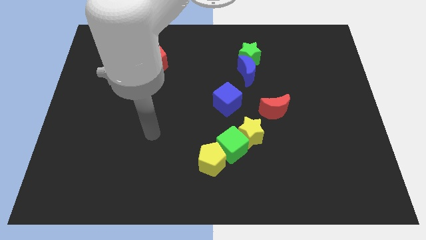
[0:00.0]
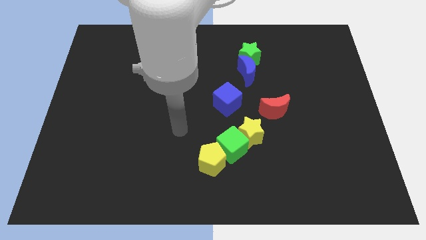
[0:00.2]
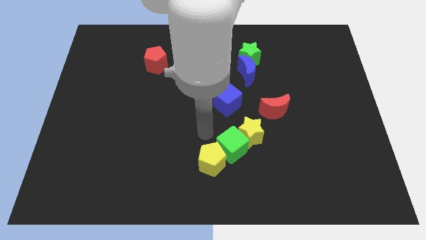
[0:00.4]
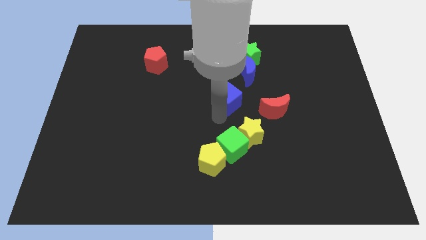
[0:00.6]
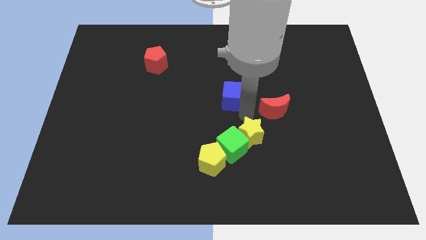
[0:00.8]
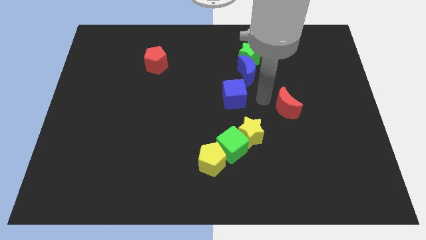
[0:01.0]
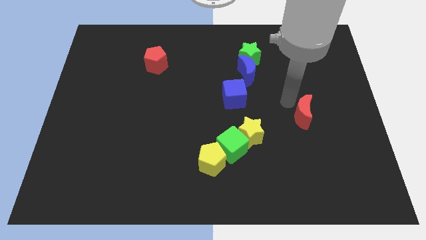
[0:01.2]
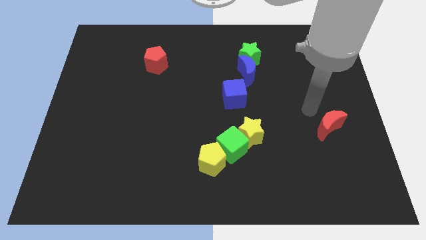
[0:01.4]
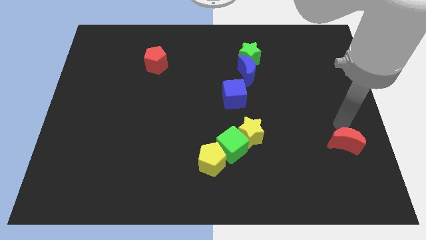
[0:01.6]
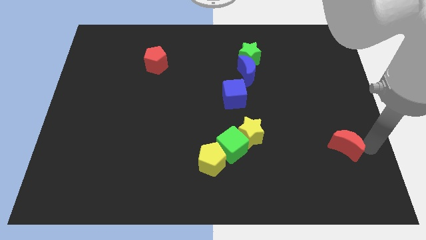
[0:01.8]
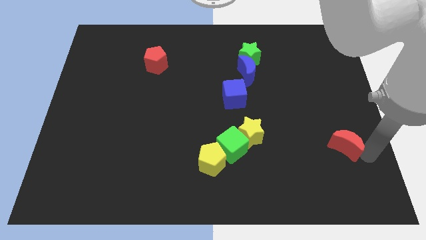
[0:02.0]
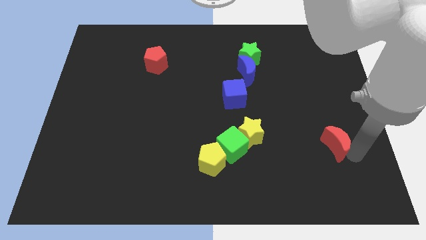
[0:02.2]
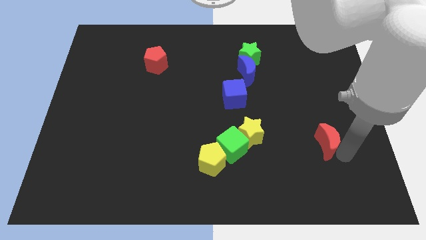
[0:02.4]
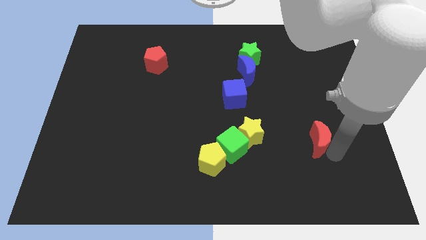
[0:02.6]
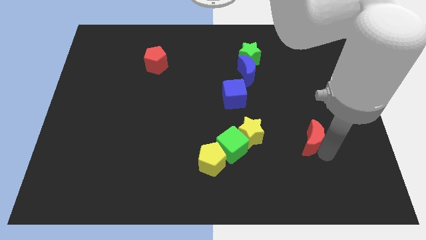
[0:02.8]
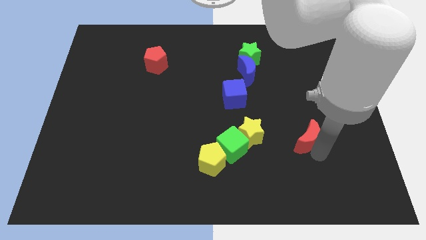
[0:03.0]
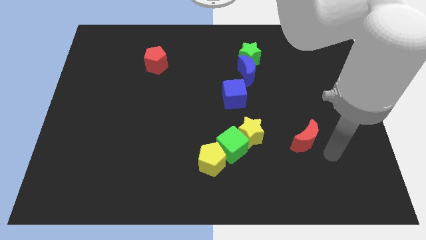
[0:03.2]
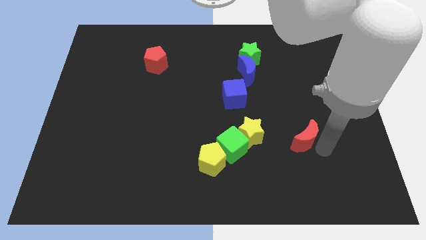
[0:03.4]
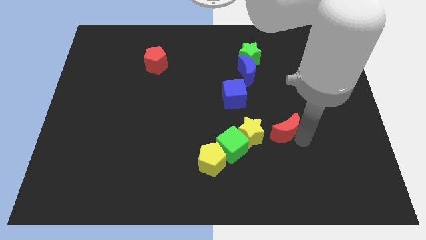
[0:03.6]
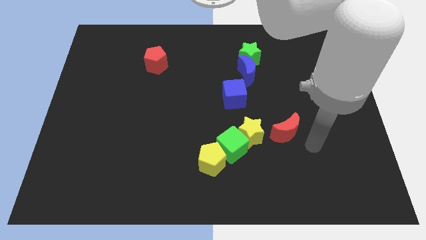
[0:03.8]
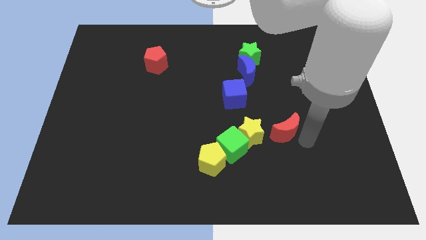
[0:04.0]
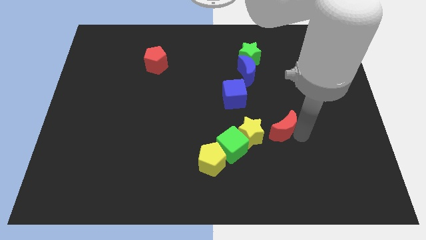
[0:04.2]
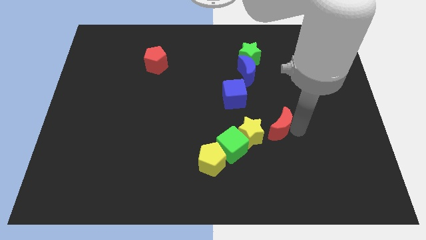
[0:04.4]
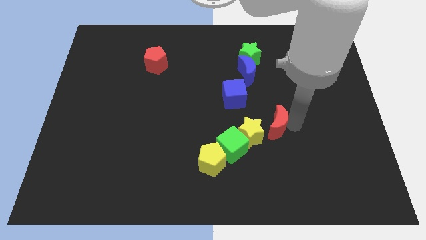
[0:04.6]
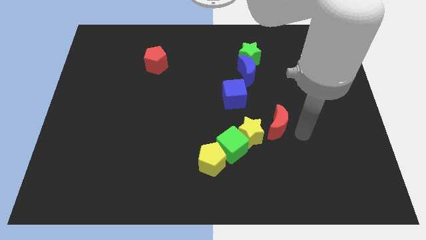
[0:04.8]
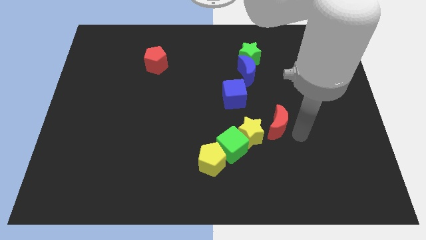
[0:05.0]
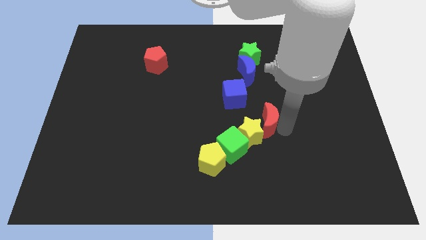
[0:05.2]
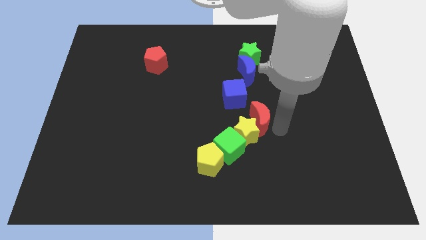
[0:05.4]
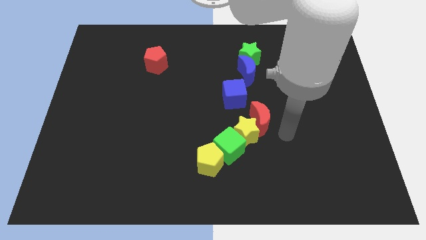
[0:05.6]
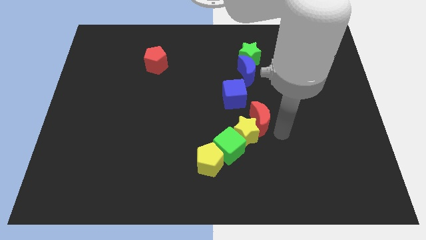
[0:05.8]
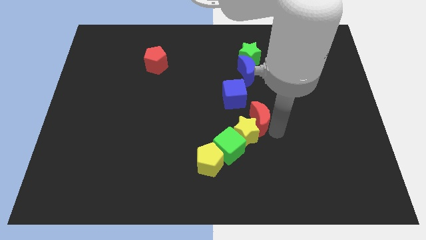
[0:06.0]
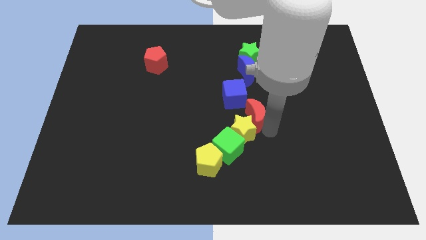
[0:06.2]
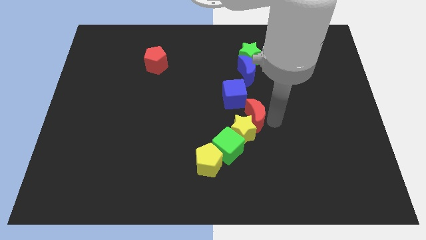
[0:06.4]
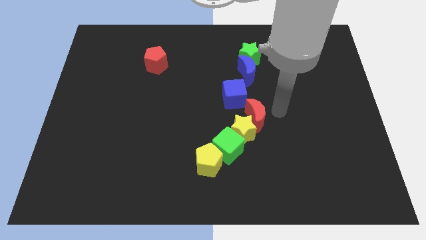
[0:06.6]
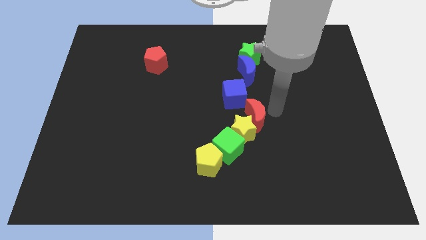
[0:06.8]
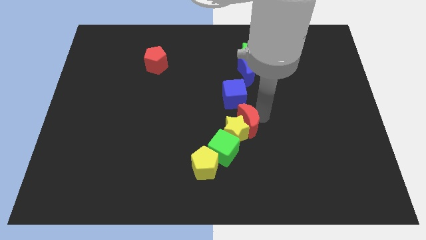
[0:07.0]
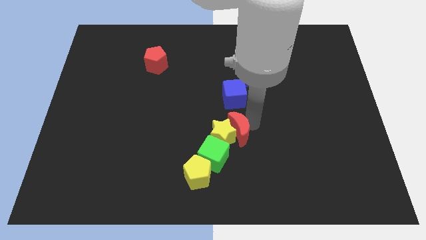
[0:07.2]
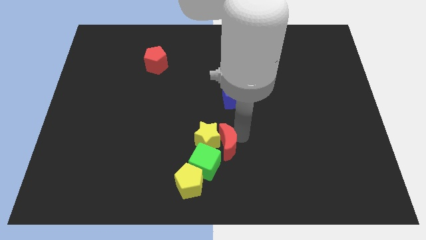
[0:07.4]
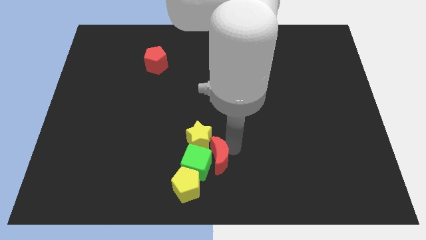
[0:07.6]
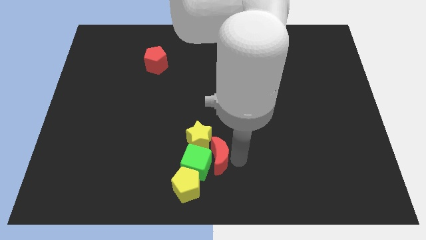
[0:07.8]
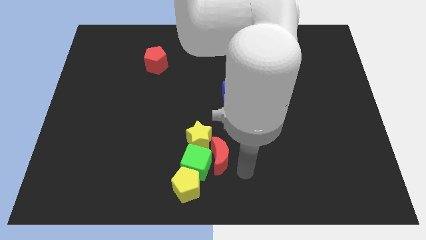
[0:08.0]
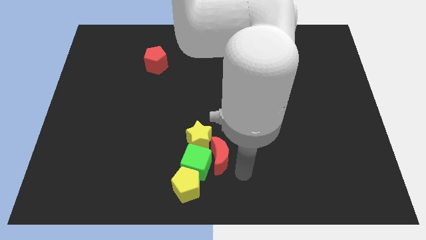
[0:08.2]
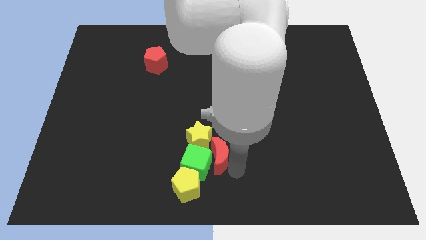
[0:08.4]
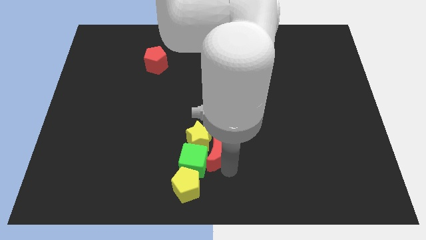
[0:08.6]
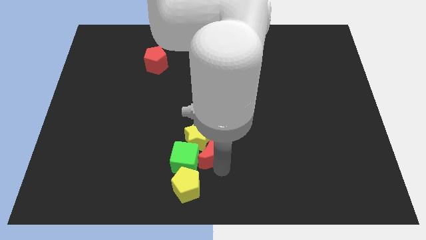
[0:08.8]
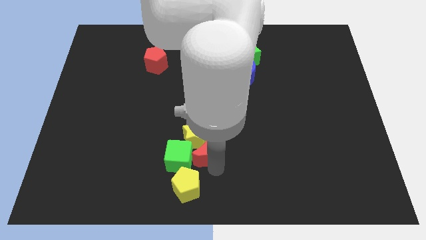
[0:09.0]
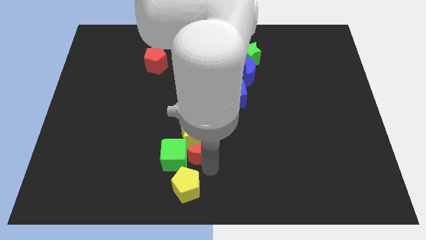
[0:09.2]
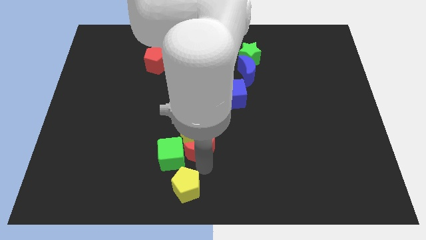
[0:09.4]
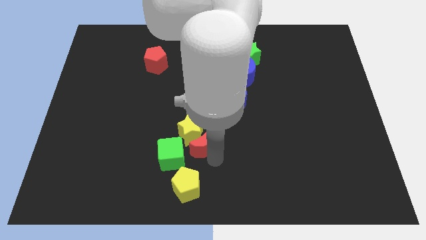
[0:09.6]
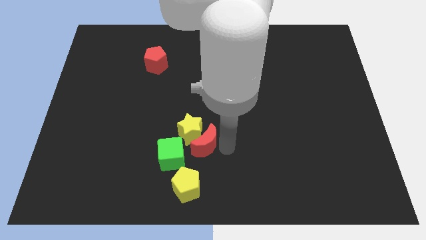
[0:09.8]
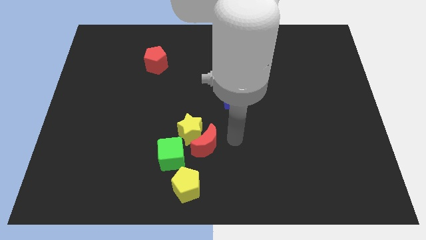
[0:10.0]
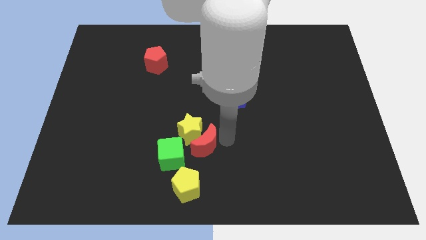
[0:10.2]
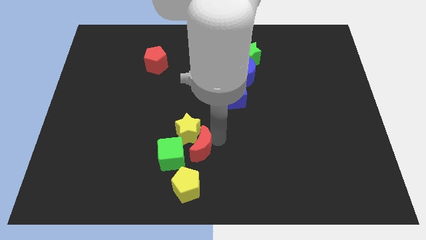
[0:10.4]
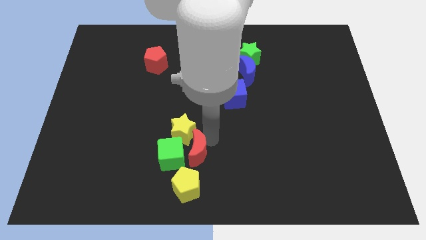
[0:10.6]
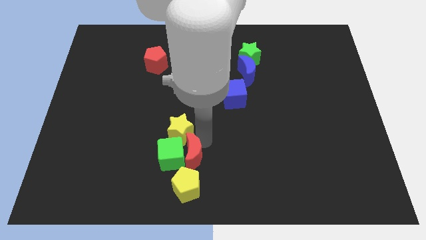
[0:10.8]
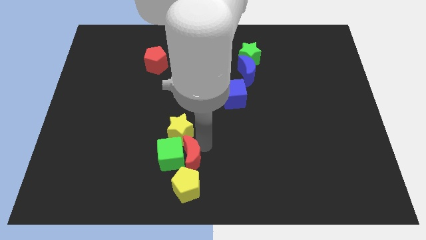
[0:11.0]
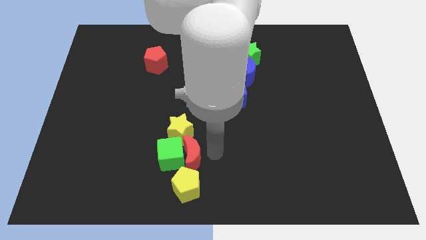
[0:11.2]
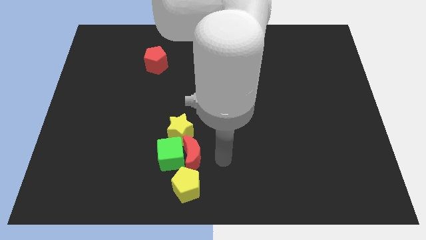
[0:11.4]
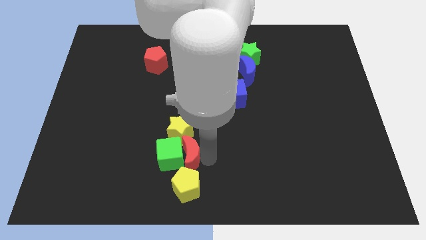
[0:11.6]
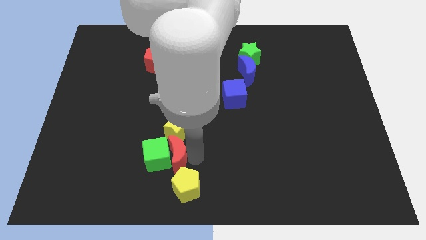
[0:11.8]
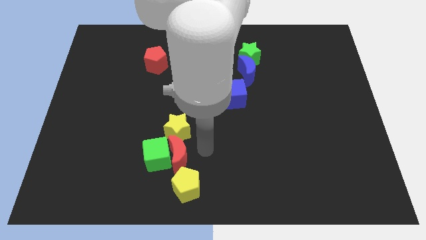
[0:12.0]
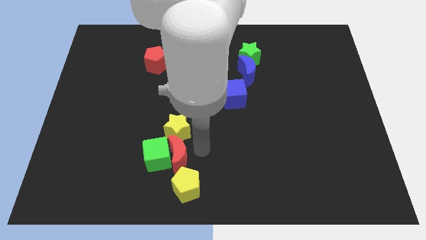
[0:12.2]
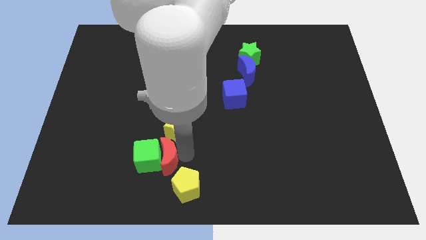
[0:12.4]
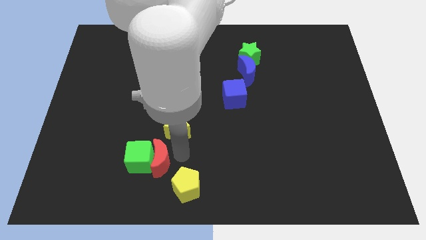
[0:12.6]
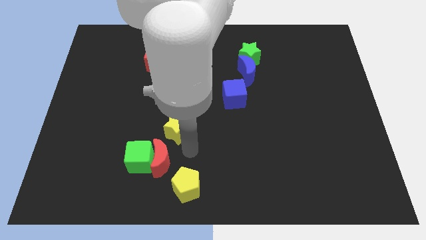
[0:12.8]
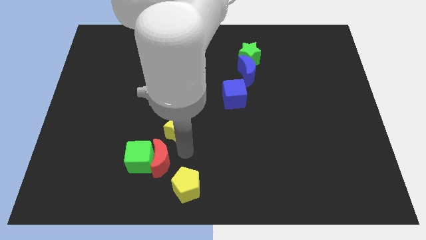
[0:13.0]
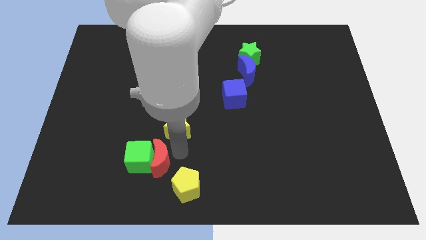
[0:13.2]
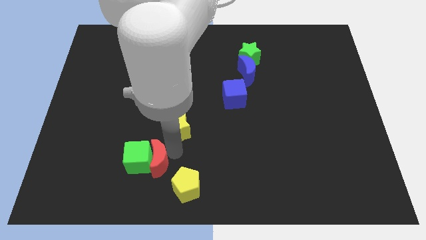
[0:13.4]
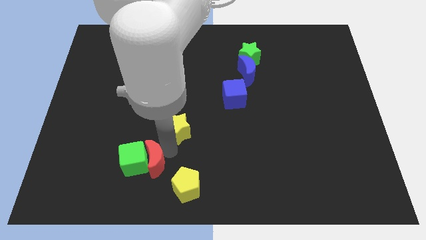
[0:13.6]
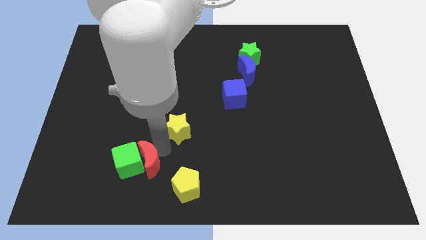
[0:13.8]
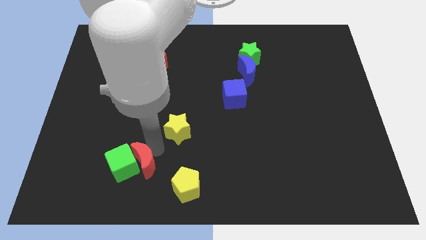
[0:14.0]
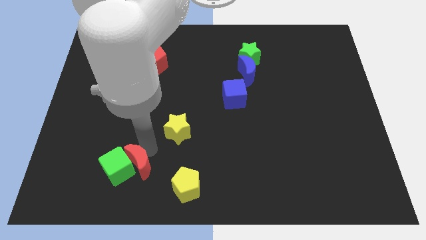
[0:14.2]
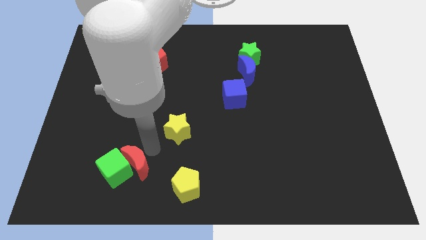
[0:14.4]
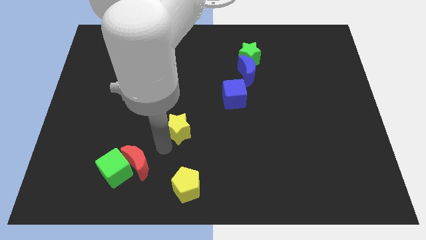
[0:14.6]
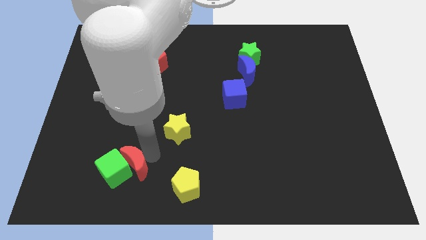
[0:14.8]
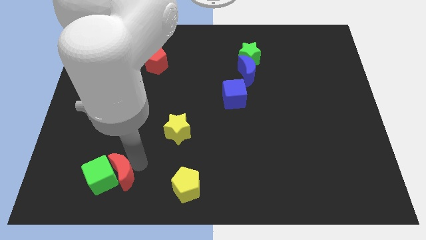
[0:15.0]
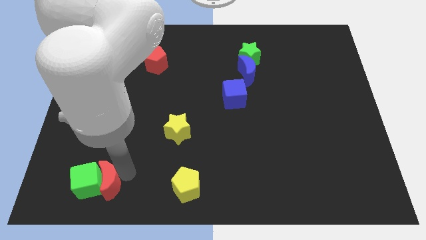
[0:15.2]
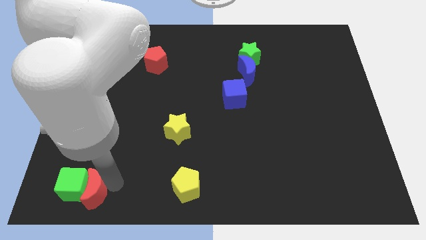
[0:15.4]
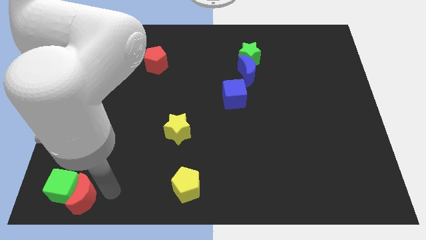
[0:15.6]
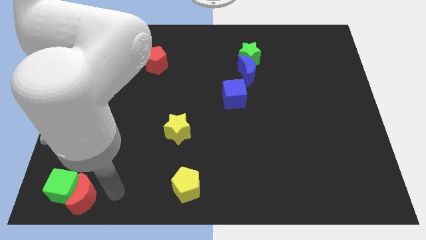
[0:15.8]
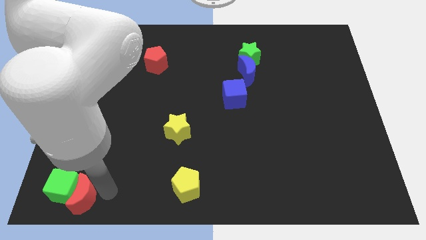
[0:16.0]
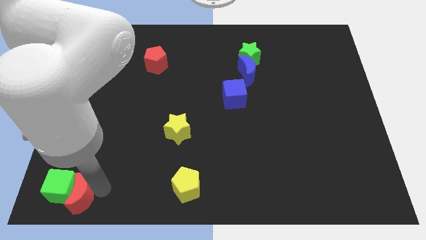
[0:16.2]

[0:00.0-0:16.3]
put the red moon to the bottom left corner
